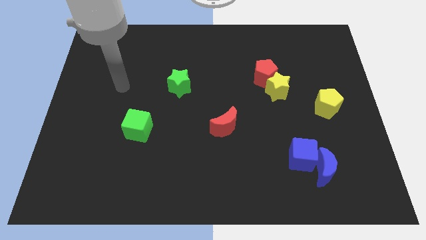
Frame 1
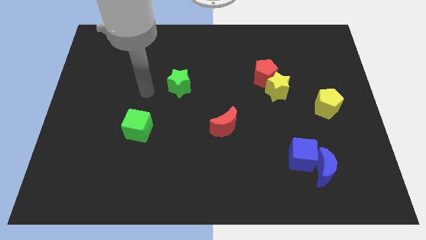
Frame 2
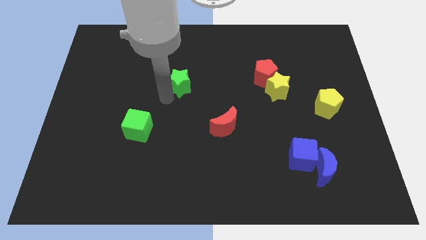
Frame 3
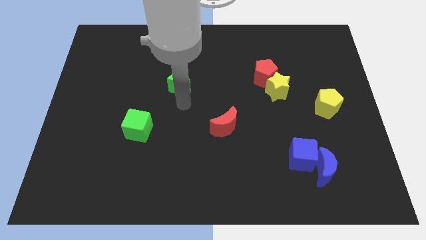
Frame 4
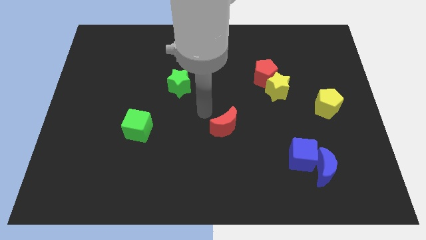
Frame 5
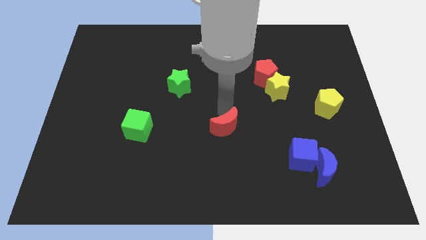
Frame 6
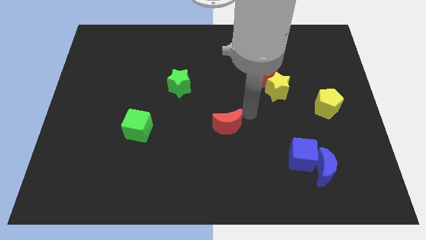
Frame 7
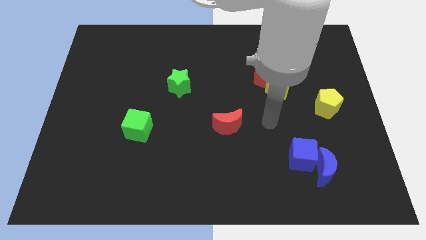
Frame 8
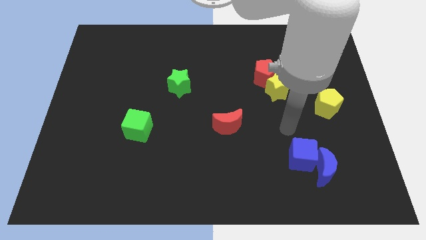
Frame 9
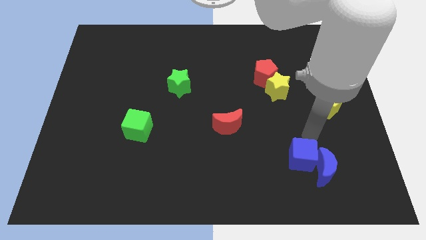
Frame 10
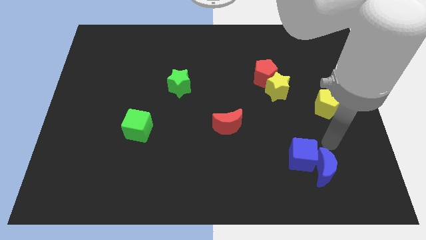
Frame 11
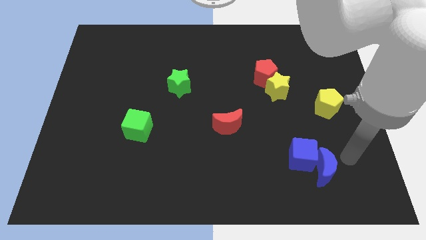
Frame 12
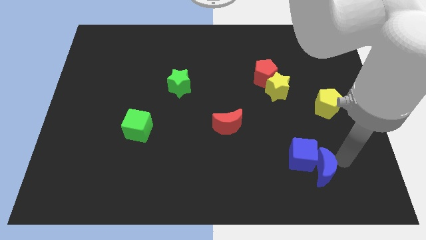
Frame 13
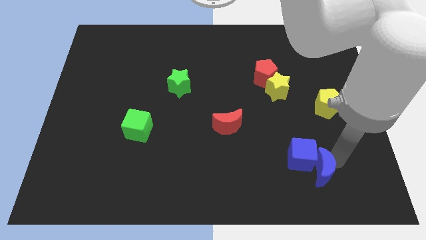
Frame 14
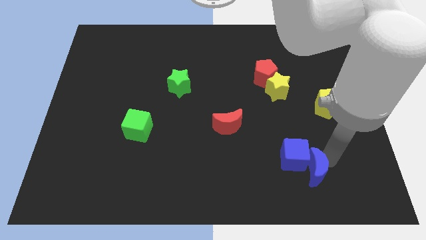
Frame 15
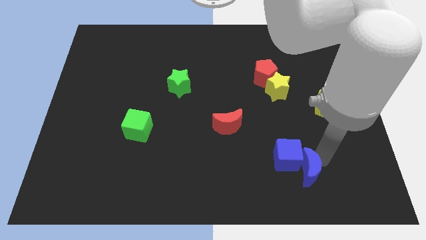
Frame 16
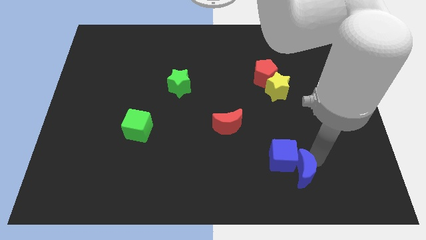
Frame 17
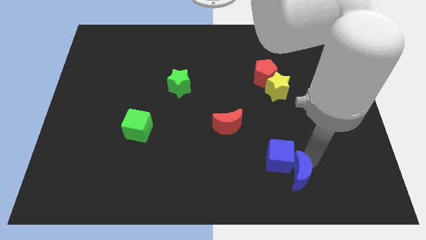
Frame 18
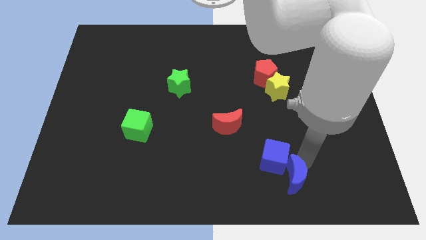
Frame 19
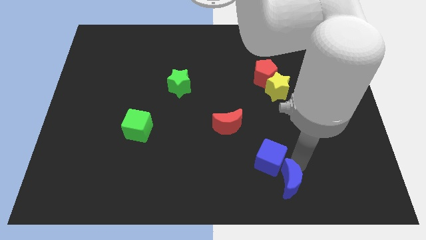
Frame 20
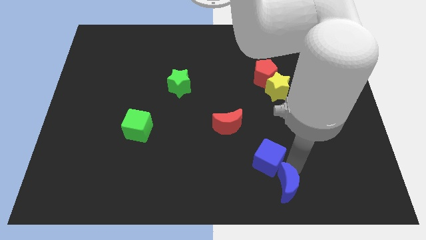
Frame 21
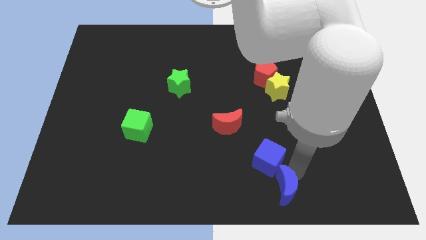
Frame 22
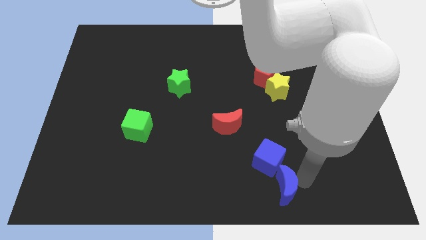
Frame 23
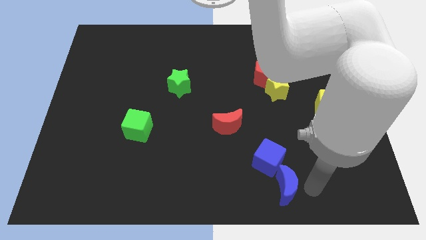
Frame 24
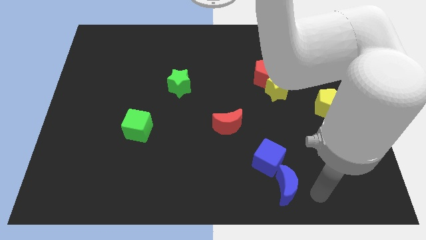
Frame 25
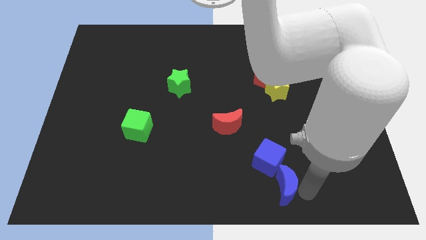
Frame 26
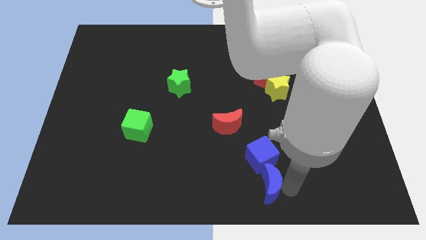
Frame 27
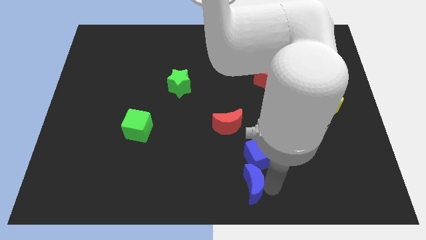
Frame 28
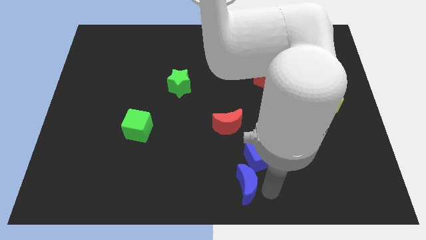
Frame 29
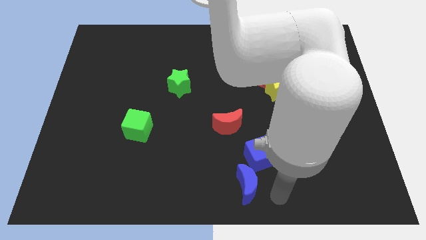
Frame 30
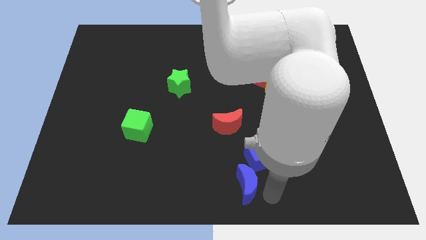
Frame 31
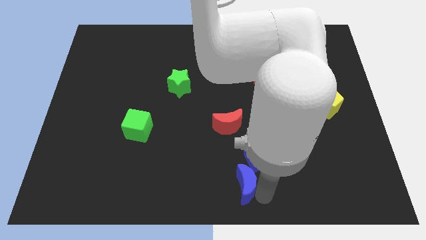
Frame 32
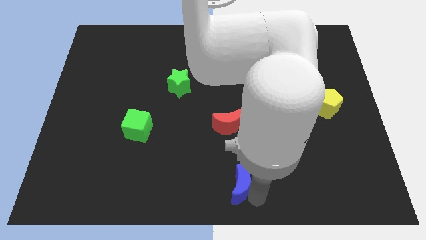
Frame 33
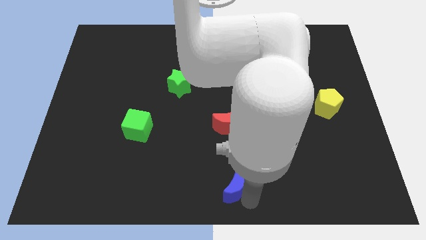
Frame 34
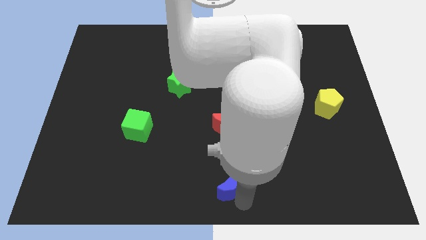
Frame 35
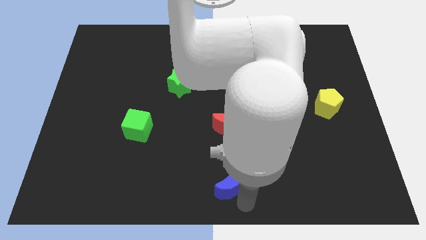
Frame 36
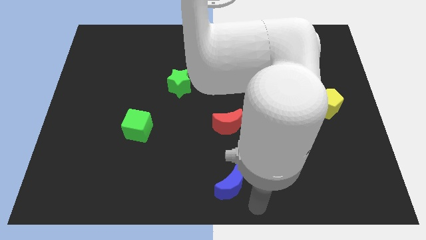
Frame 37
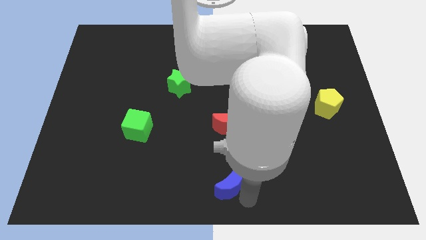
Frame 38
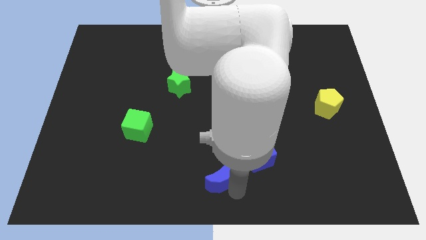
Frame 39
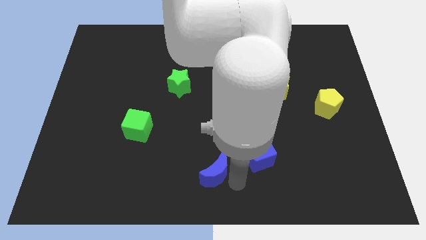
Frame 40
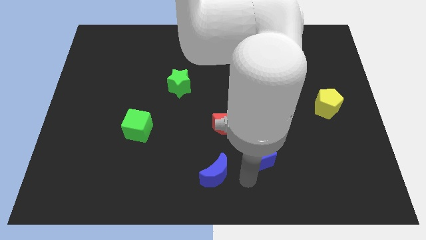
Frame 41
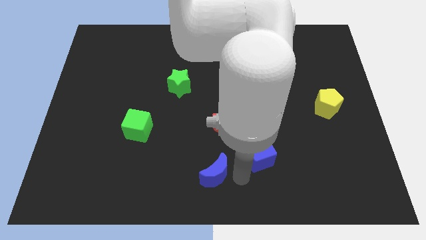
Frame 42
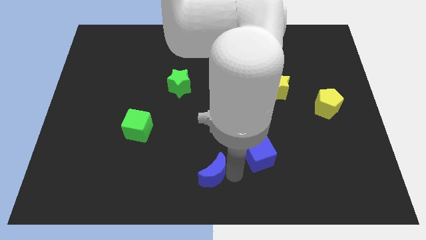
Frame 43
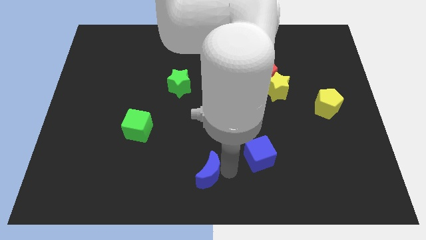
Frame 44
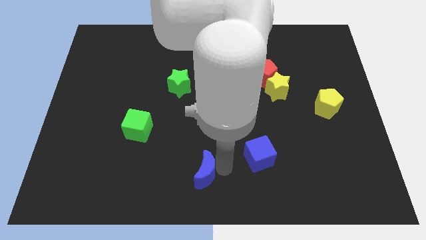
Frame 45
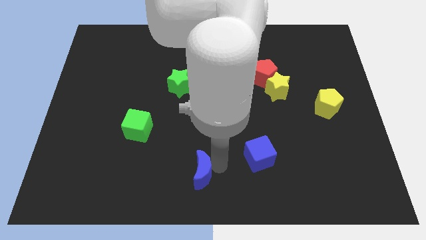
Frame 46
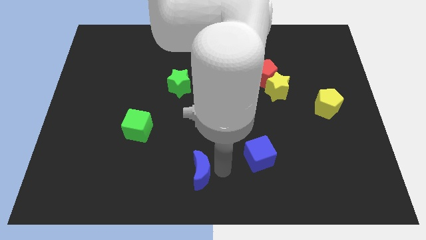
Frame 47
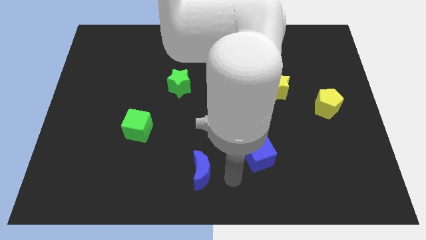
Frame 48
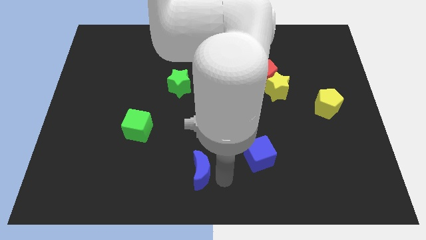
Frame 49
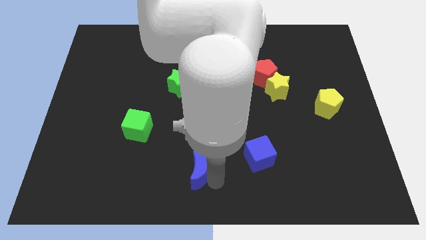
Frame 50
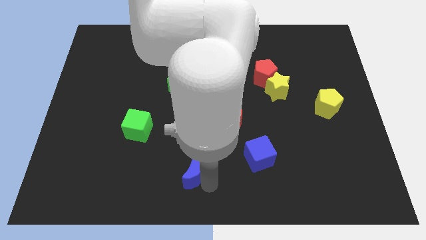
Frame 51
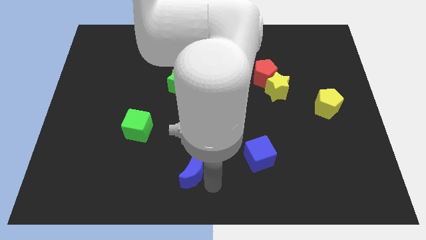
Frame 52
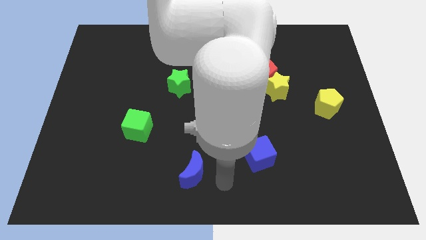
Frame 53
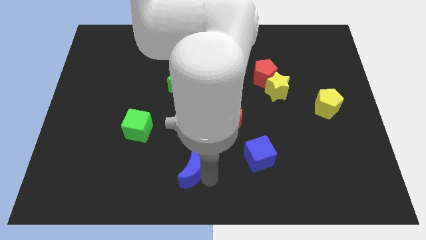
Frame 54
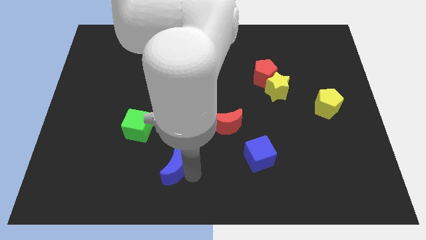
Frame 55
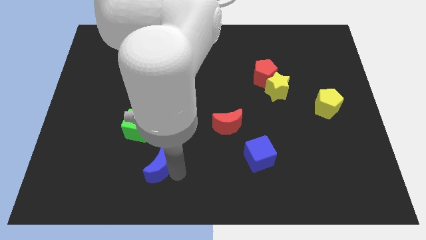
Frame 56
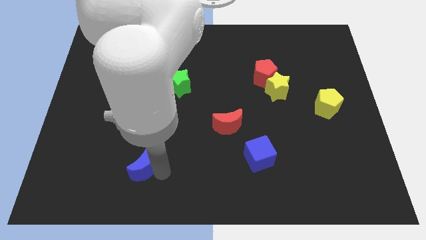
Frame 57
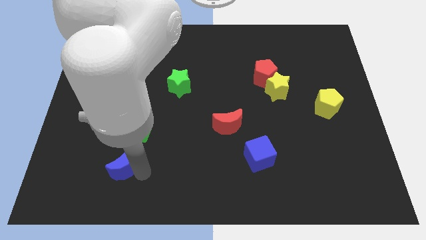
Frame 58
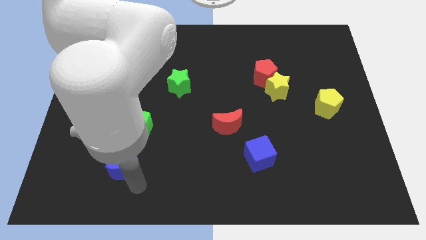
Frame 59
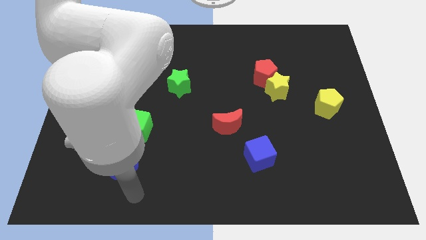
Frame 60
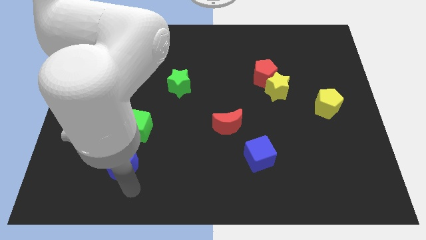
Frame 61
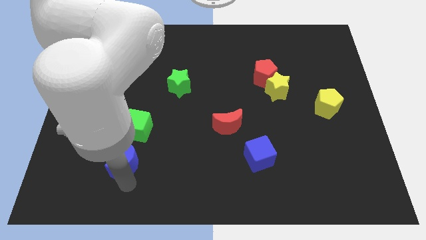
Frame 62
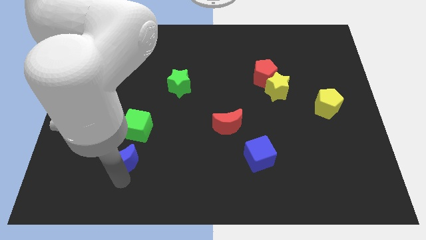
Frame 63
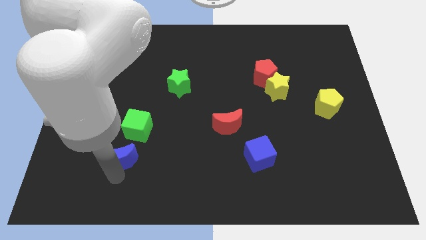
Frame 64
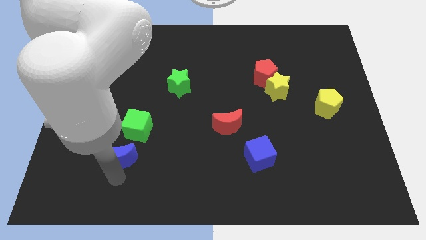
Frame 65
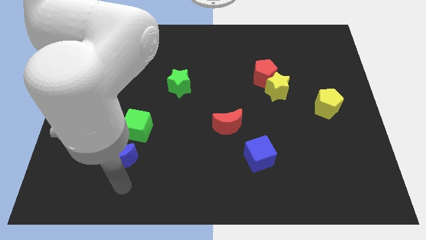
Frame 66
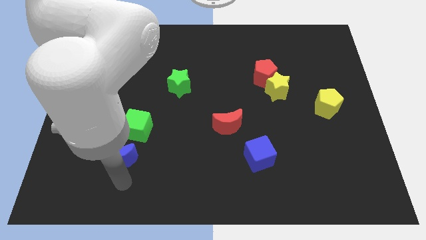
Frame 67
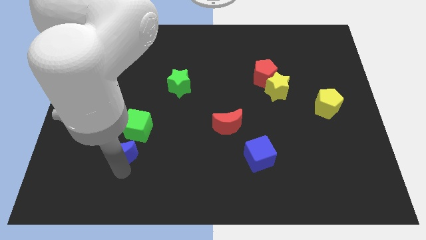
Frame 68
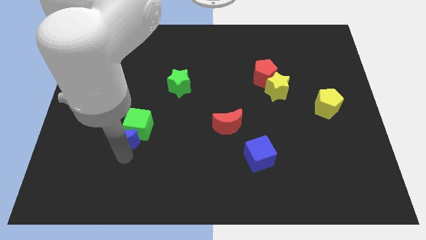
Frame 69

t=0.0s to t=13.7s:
slide the blue moon to the left side of the green cube

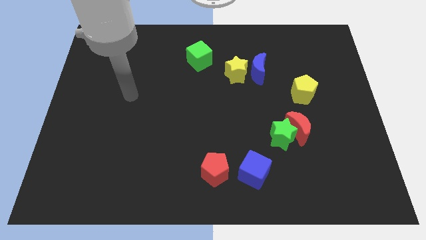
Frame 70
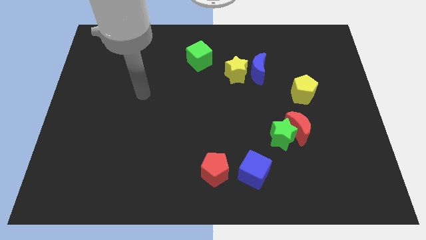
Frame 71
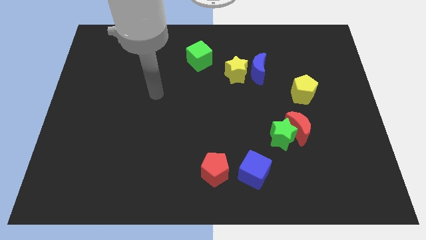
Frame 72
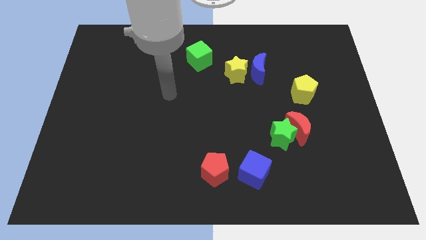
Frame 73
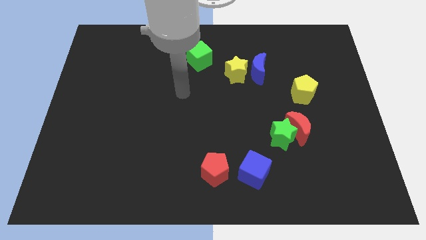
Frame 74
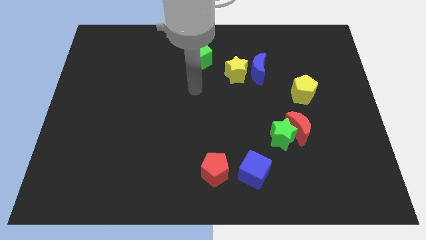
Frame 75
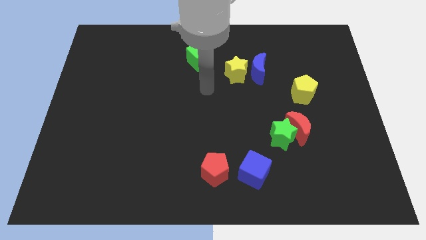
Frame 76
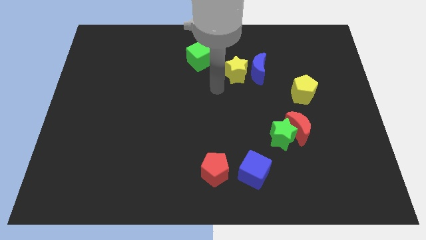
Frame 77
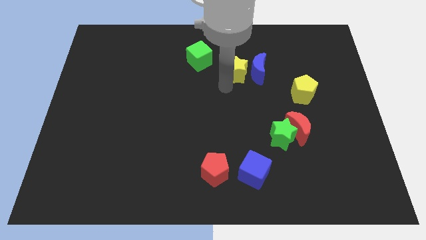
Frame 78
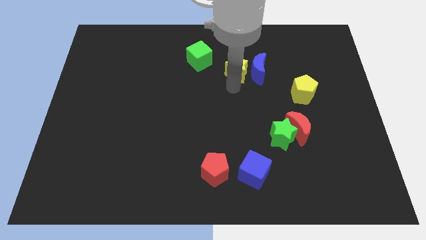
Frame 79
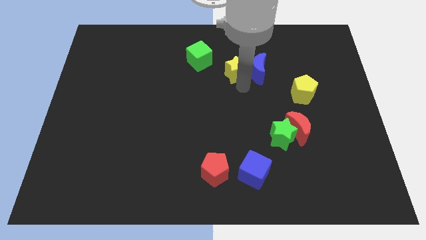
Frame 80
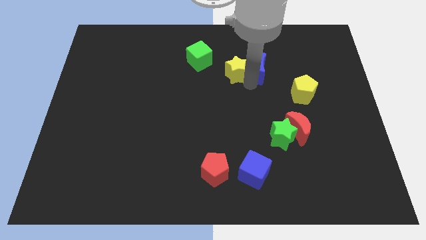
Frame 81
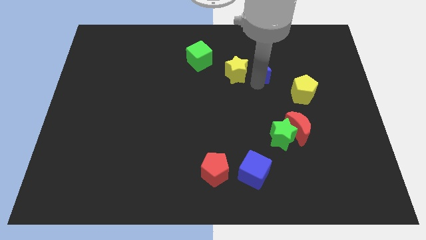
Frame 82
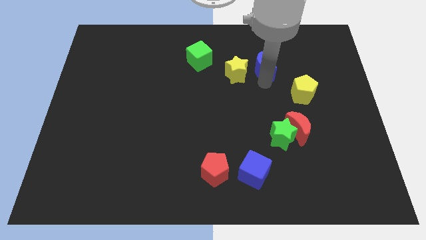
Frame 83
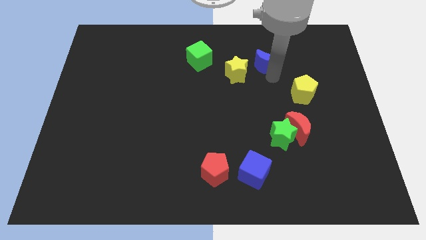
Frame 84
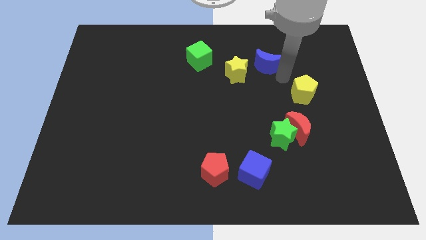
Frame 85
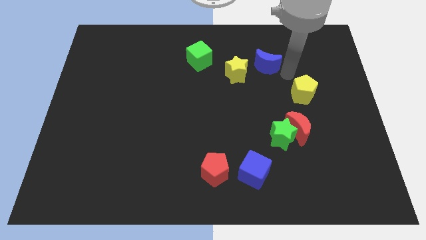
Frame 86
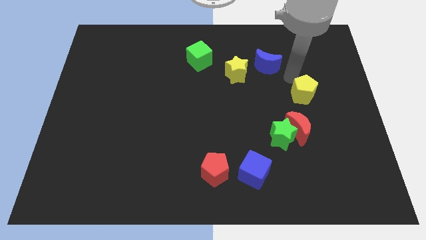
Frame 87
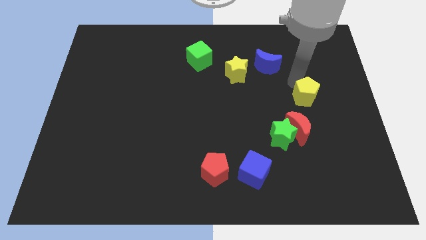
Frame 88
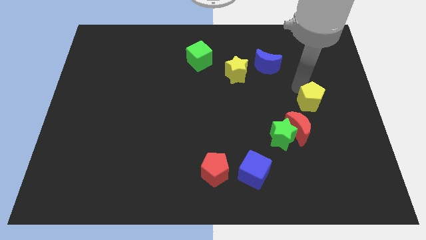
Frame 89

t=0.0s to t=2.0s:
push the yellow pentagon diagonally up and to the right of the red moon
